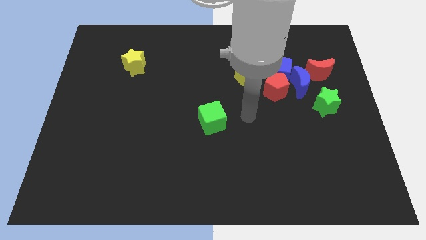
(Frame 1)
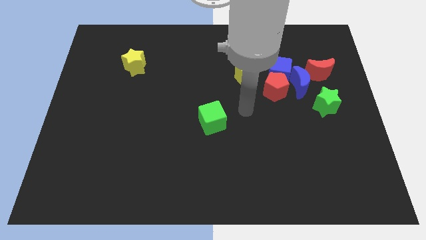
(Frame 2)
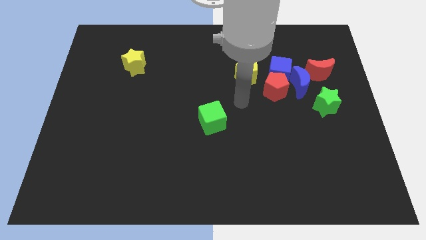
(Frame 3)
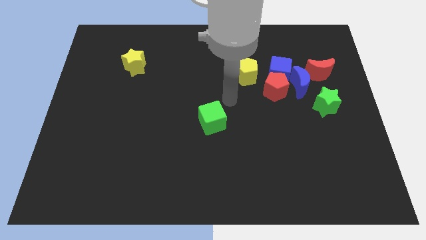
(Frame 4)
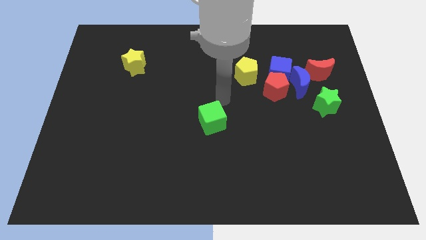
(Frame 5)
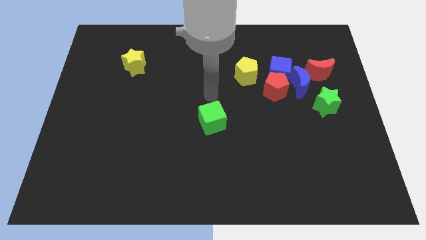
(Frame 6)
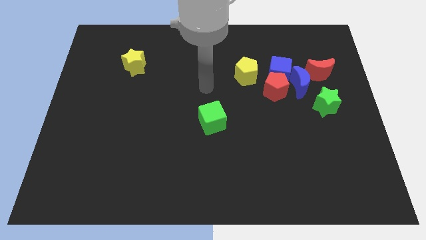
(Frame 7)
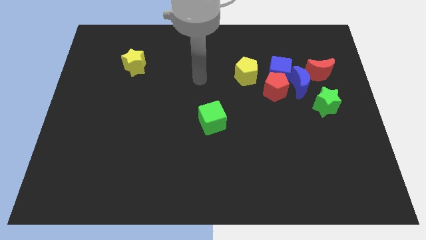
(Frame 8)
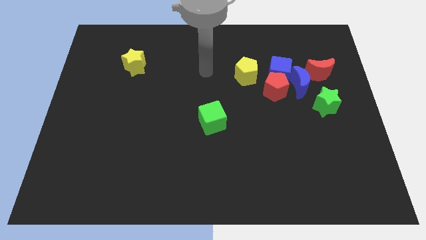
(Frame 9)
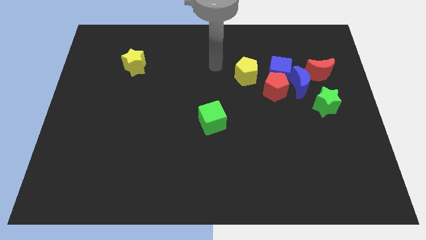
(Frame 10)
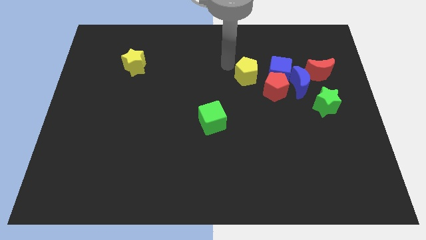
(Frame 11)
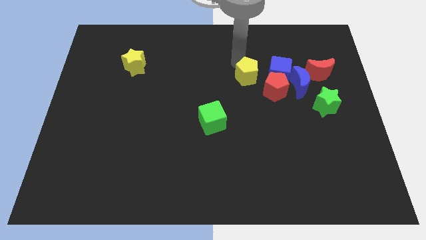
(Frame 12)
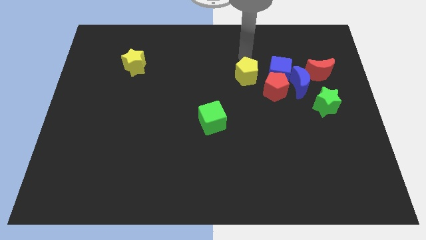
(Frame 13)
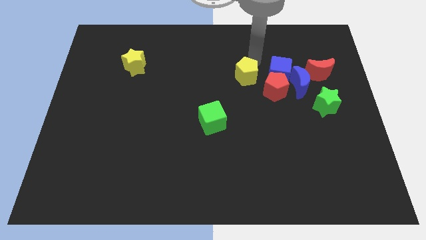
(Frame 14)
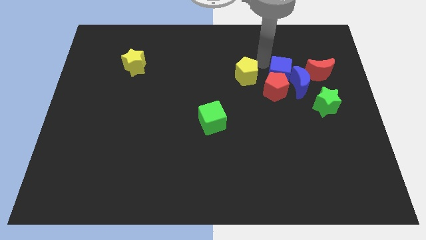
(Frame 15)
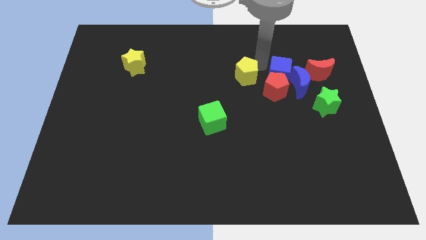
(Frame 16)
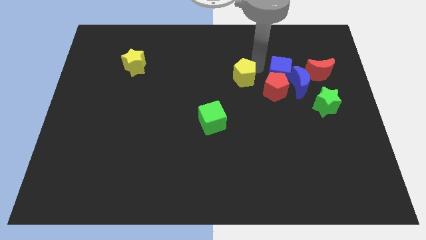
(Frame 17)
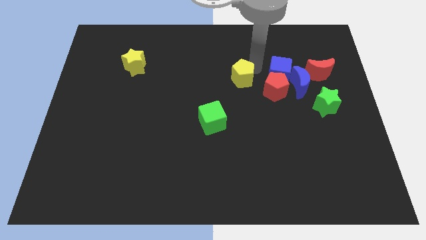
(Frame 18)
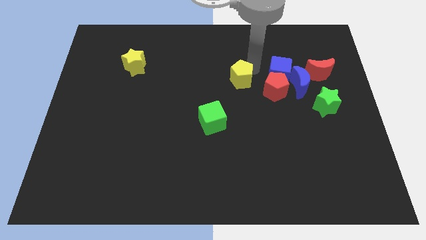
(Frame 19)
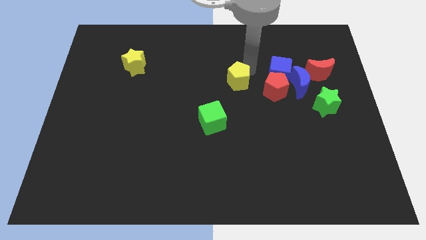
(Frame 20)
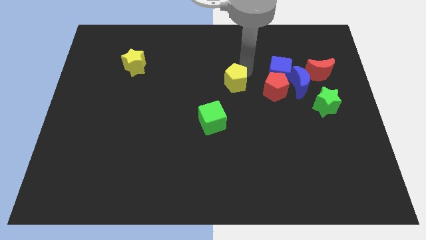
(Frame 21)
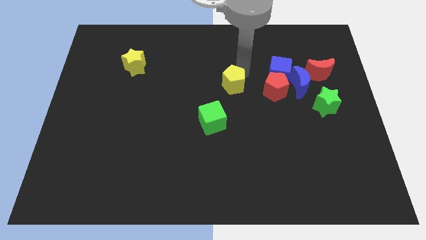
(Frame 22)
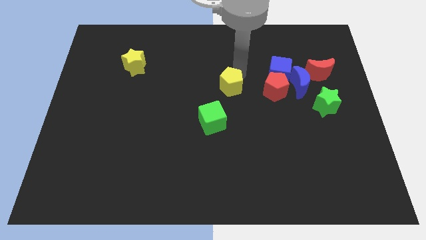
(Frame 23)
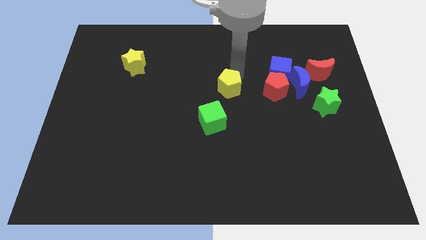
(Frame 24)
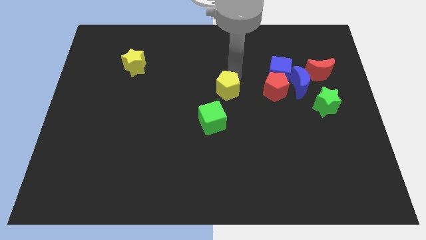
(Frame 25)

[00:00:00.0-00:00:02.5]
slide the yellow pentagon slightly down and to the left diagonally

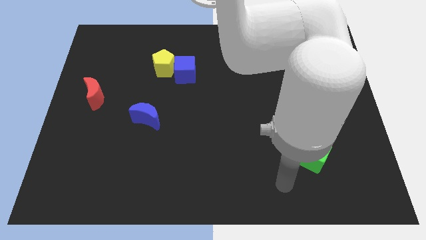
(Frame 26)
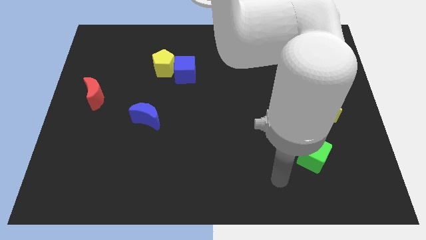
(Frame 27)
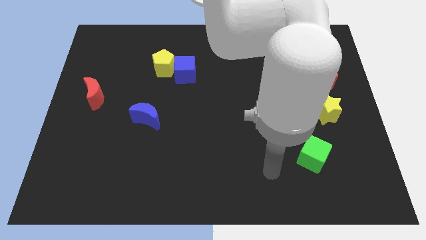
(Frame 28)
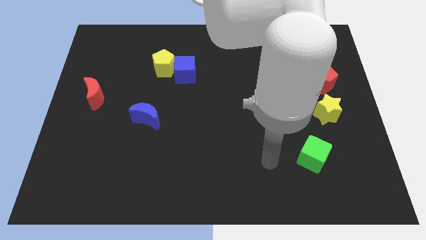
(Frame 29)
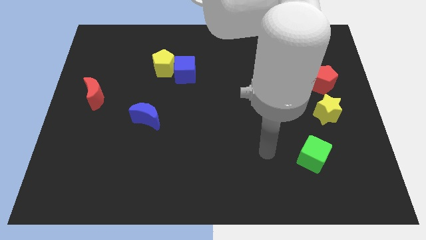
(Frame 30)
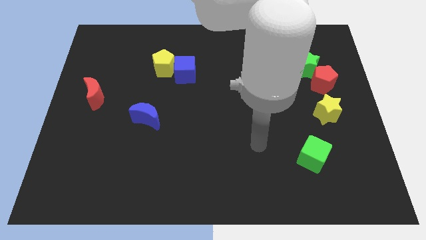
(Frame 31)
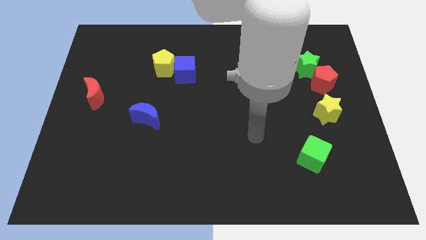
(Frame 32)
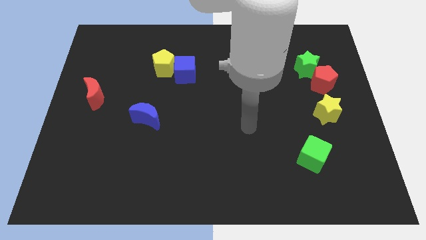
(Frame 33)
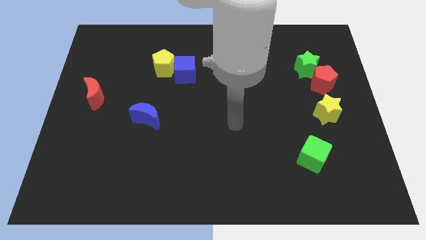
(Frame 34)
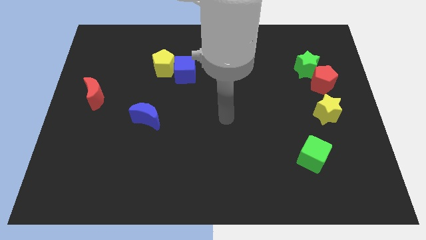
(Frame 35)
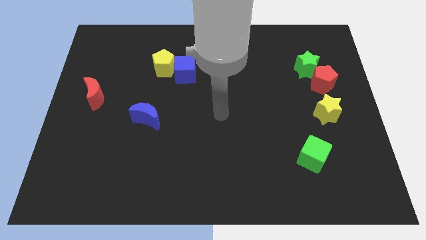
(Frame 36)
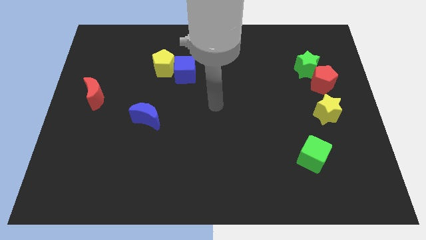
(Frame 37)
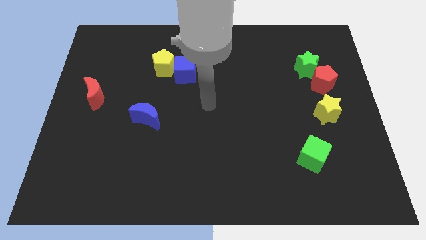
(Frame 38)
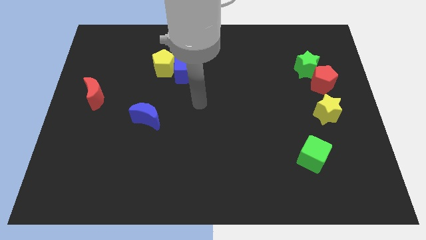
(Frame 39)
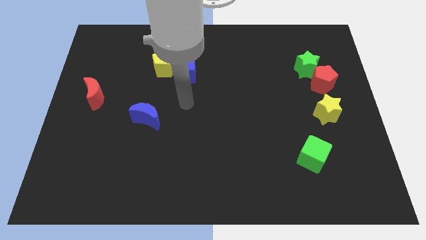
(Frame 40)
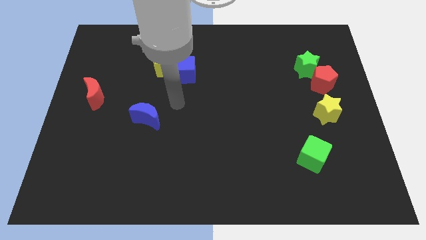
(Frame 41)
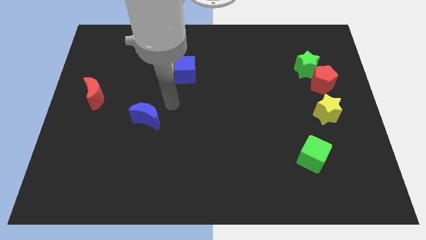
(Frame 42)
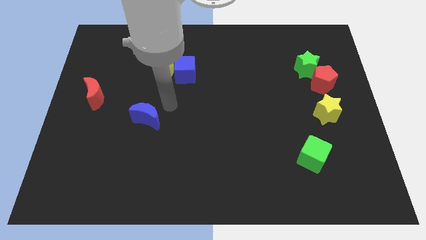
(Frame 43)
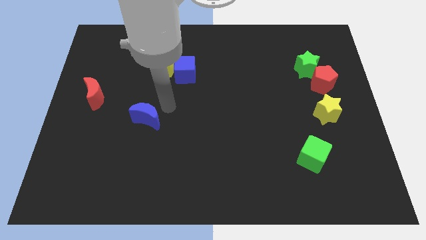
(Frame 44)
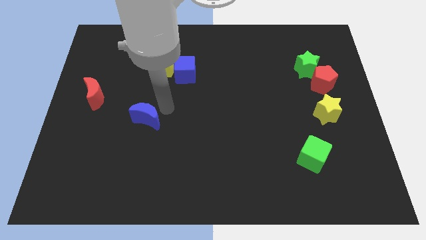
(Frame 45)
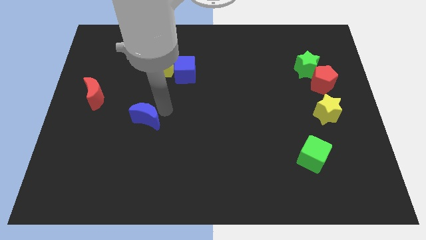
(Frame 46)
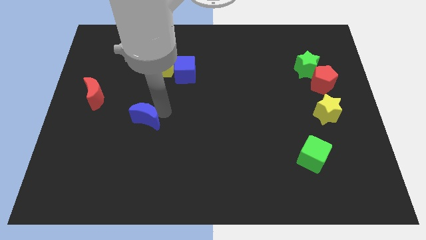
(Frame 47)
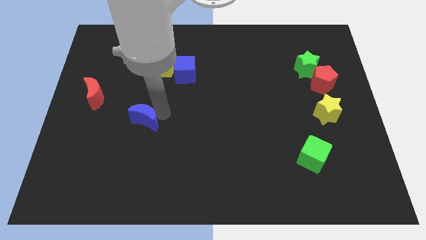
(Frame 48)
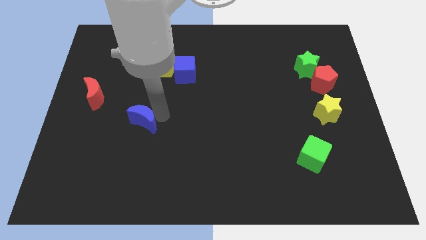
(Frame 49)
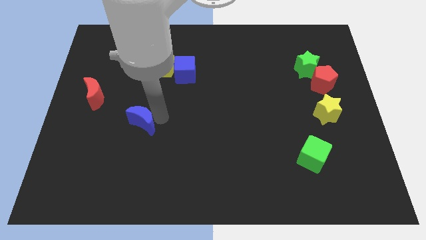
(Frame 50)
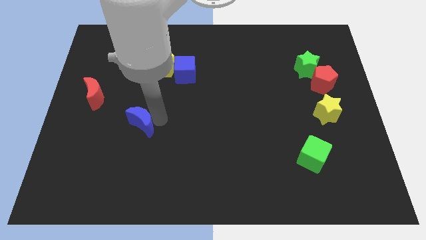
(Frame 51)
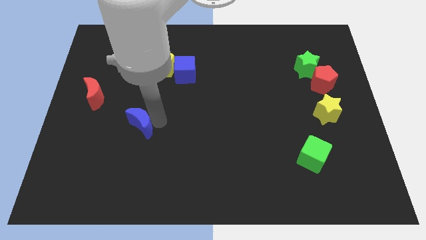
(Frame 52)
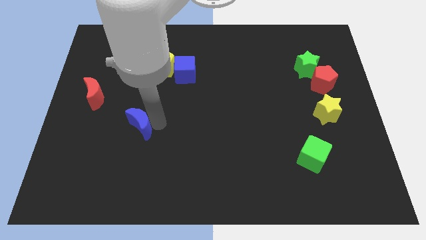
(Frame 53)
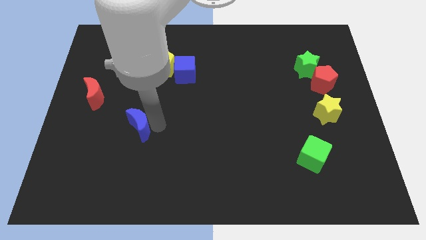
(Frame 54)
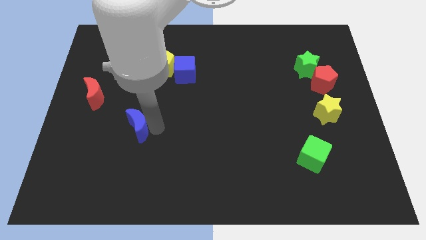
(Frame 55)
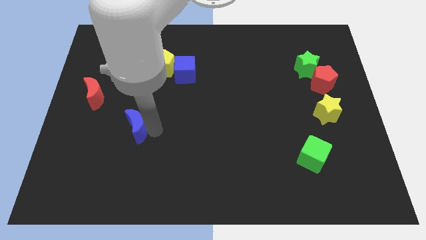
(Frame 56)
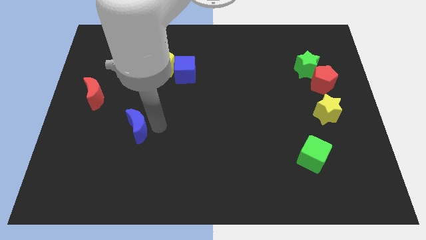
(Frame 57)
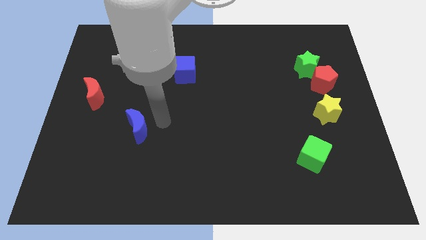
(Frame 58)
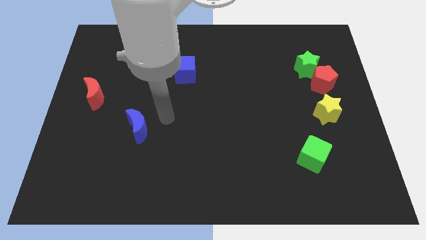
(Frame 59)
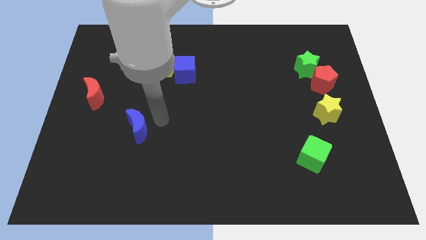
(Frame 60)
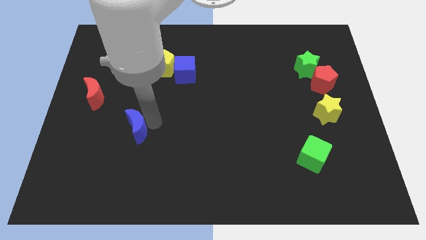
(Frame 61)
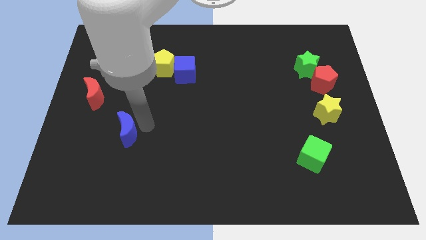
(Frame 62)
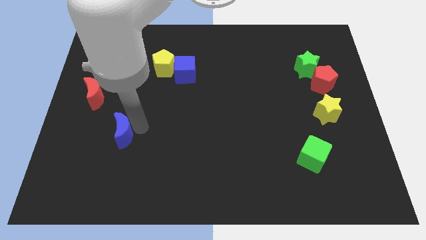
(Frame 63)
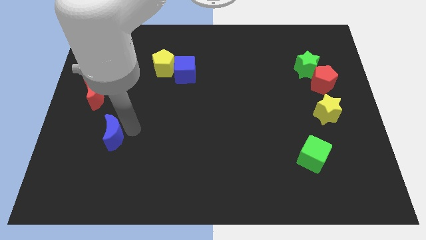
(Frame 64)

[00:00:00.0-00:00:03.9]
move the blue moon diagonally downwards and left a little bit

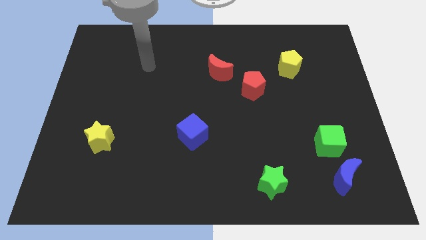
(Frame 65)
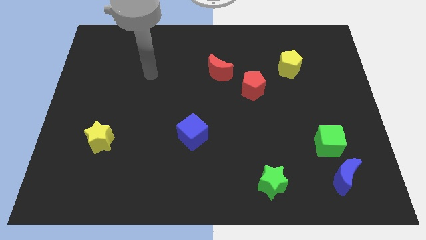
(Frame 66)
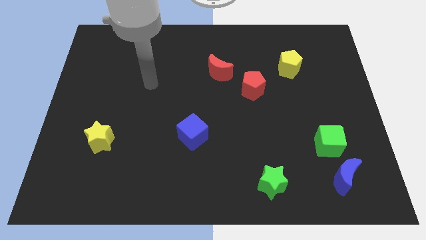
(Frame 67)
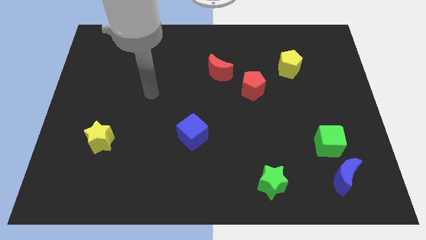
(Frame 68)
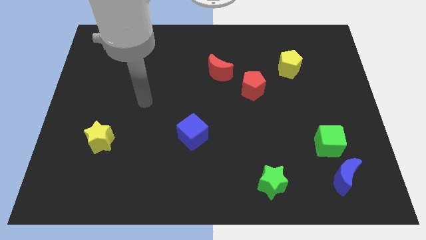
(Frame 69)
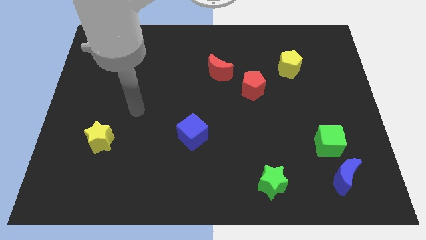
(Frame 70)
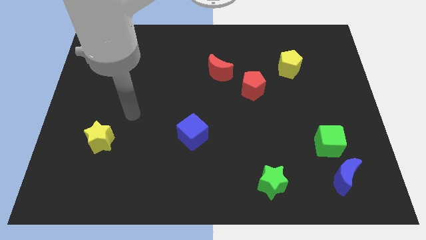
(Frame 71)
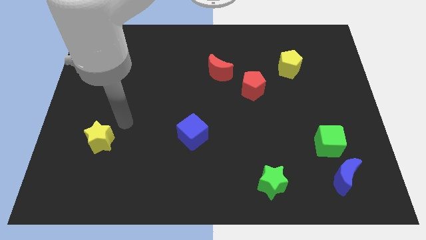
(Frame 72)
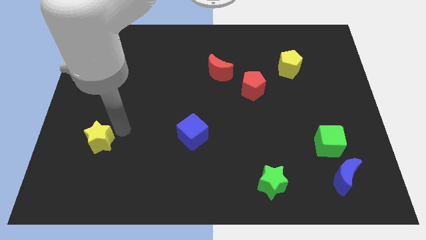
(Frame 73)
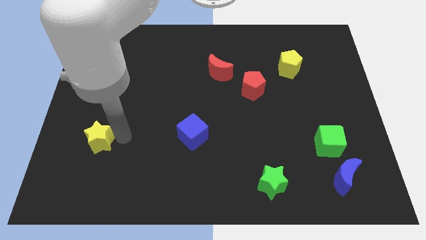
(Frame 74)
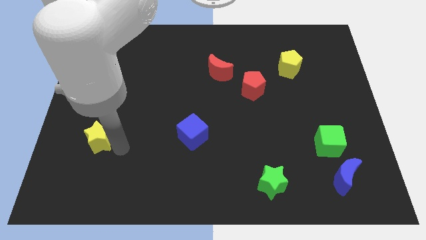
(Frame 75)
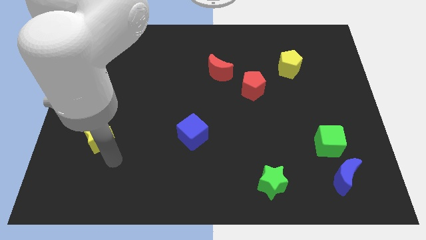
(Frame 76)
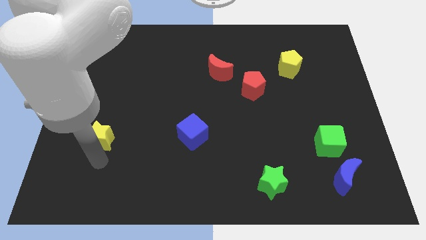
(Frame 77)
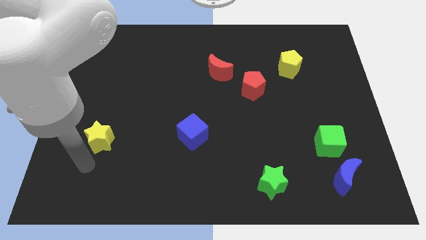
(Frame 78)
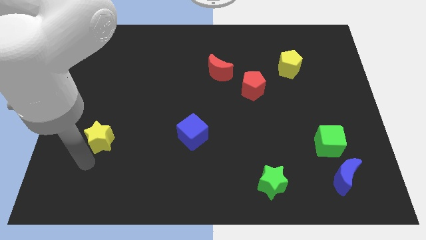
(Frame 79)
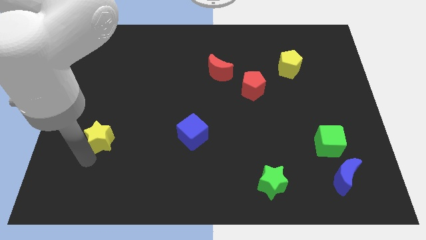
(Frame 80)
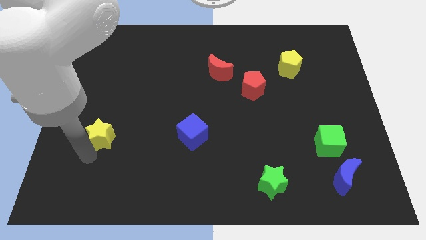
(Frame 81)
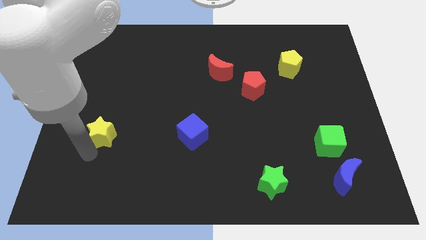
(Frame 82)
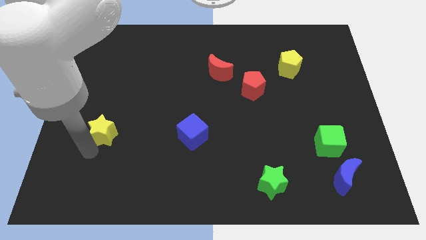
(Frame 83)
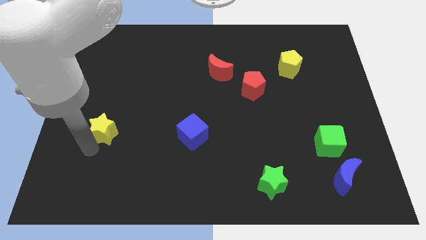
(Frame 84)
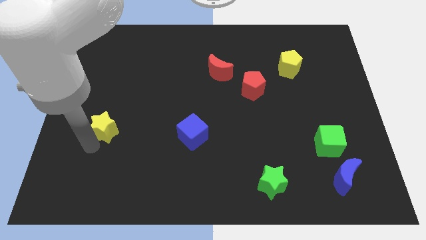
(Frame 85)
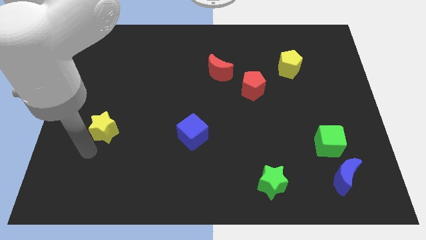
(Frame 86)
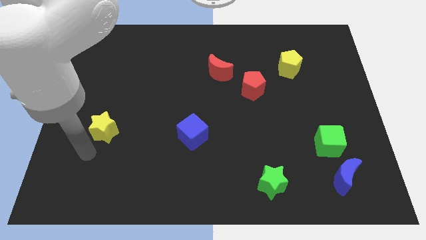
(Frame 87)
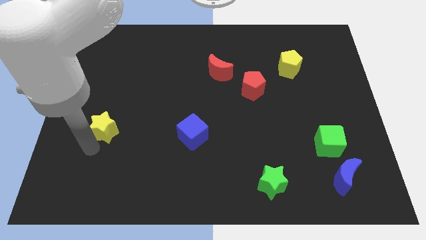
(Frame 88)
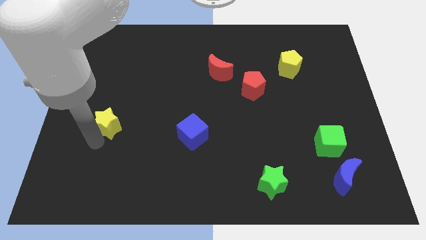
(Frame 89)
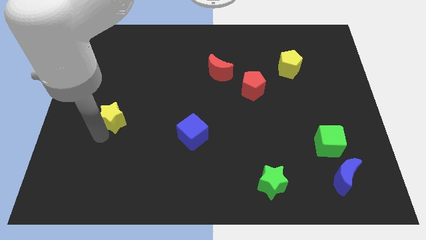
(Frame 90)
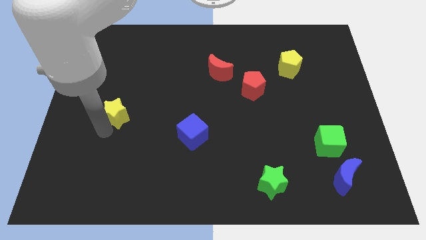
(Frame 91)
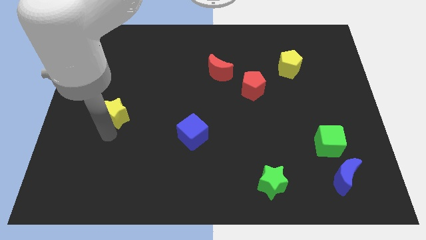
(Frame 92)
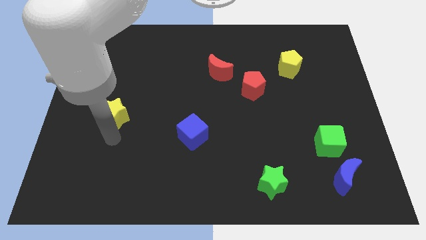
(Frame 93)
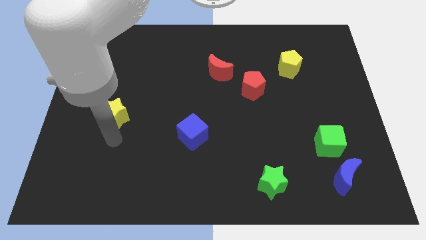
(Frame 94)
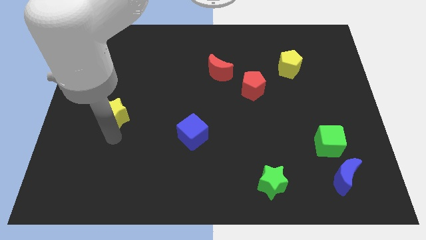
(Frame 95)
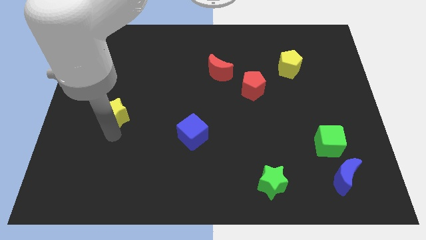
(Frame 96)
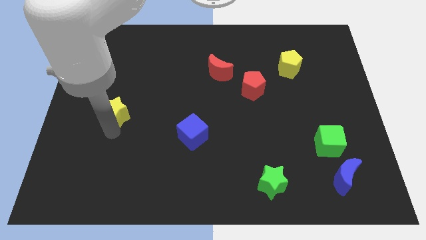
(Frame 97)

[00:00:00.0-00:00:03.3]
move the yellow star up a bit
